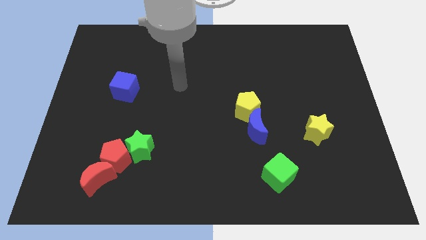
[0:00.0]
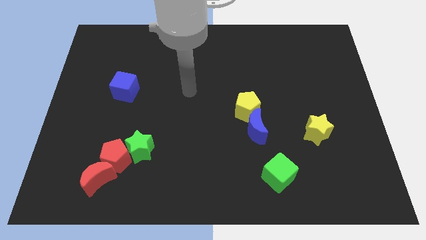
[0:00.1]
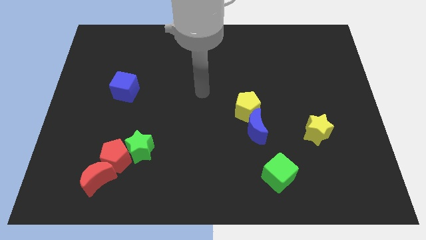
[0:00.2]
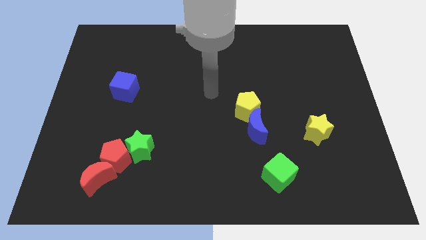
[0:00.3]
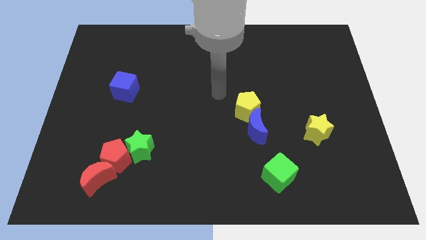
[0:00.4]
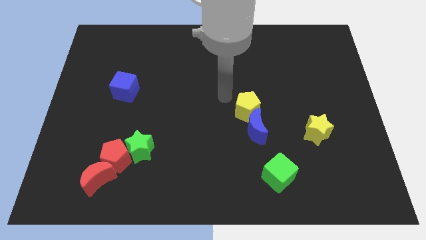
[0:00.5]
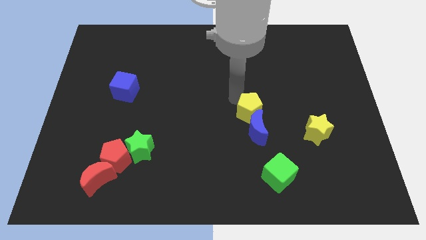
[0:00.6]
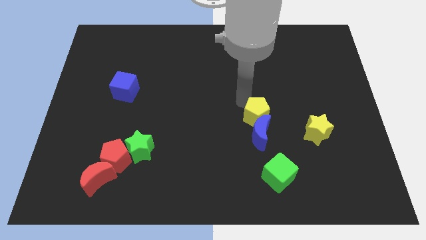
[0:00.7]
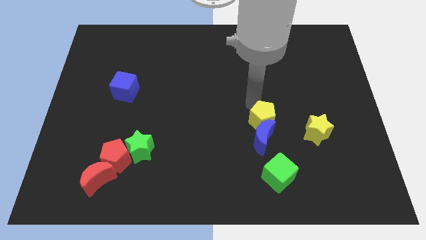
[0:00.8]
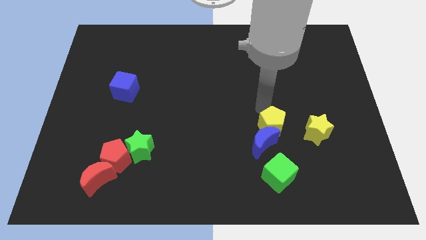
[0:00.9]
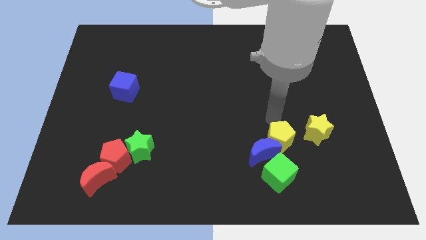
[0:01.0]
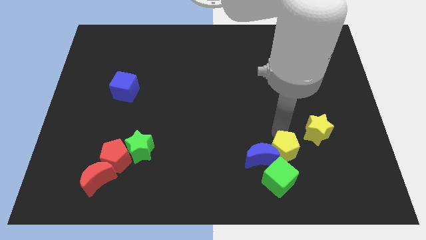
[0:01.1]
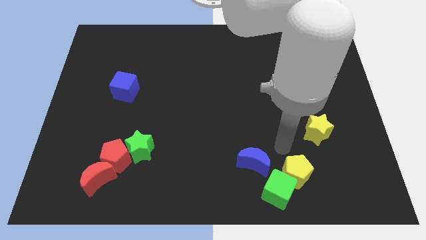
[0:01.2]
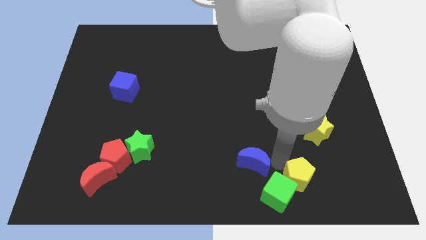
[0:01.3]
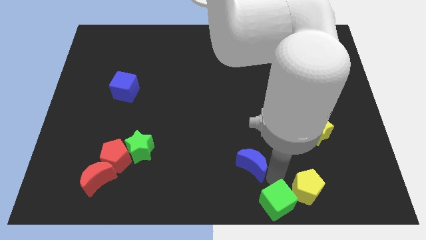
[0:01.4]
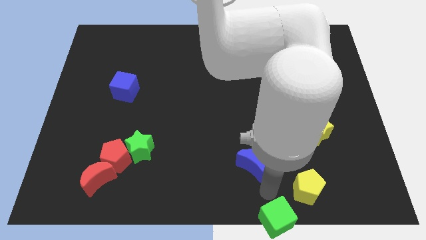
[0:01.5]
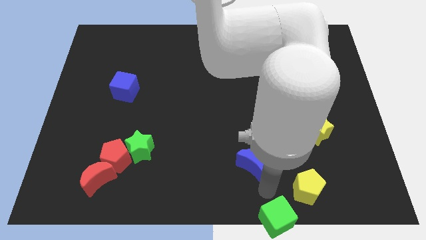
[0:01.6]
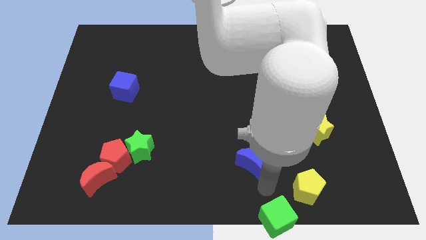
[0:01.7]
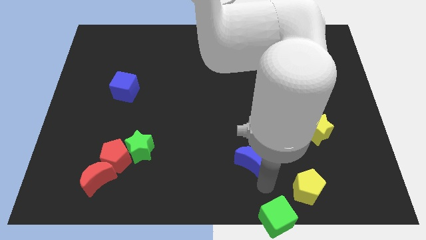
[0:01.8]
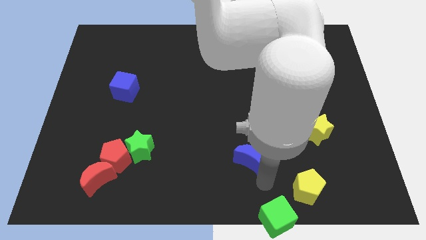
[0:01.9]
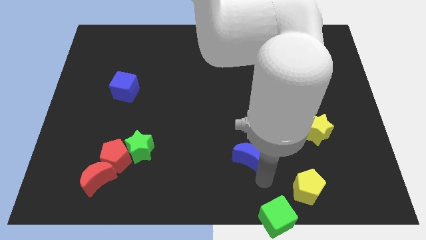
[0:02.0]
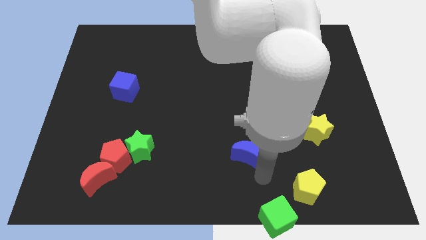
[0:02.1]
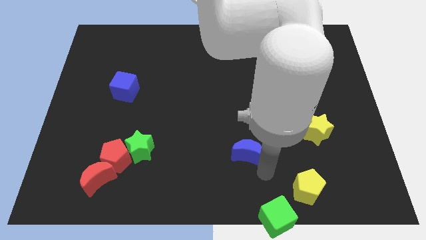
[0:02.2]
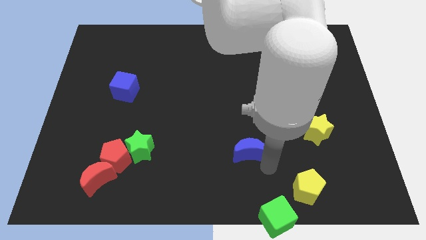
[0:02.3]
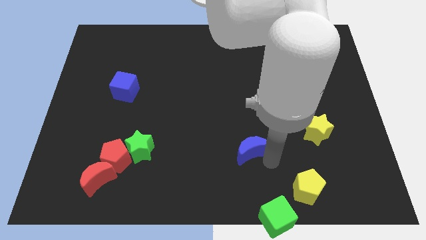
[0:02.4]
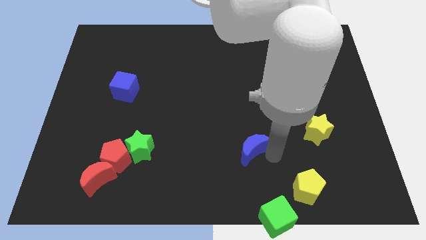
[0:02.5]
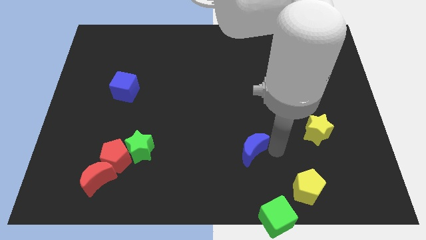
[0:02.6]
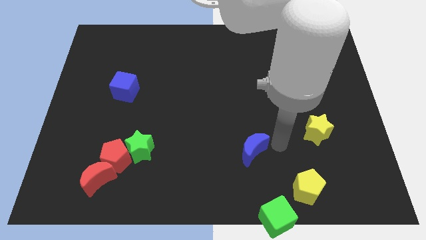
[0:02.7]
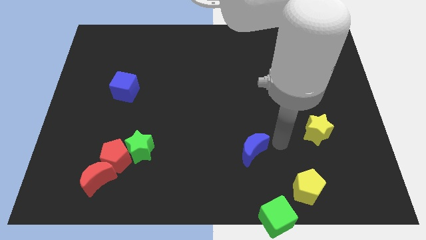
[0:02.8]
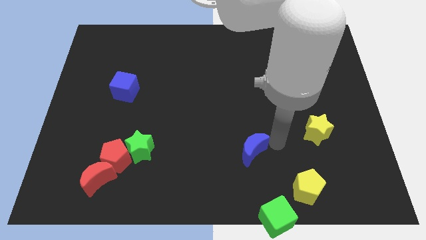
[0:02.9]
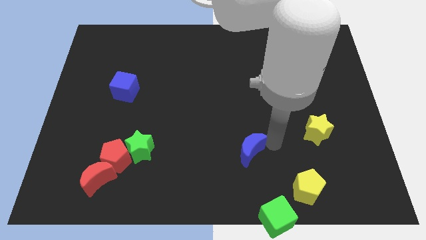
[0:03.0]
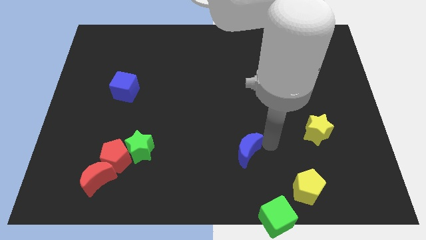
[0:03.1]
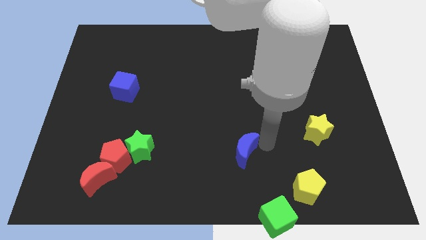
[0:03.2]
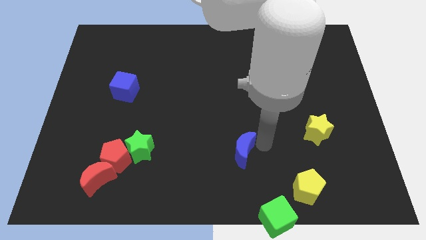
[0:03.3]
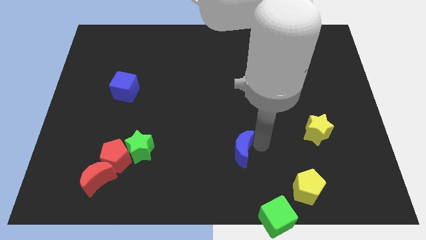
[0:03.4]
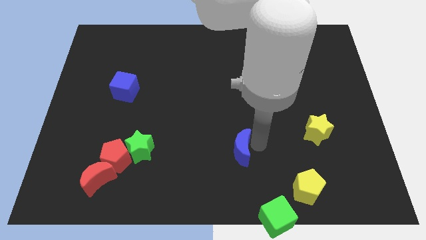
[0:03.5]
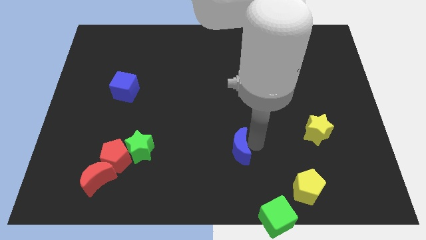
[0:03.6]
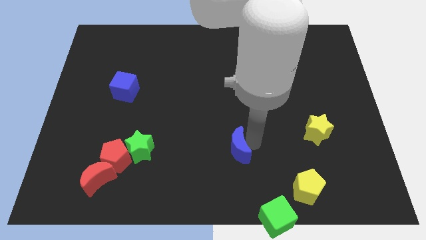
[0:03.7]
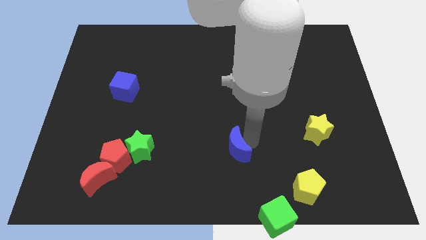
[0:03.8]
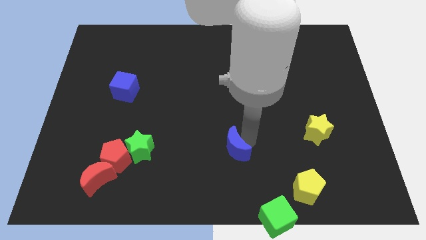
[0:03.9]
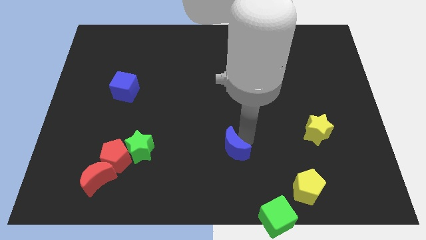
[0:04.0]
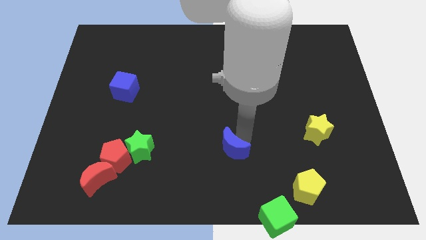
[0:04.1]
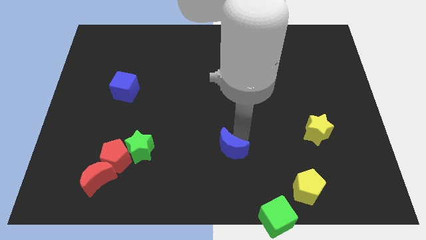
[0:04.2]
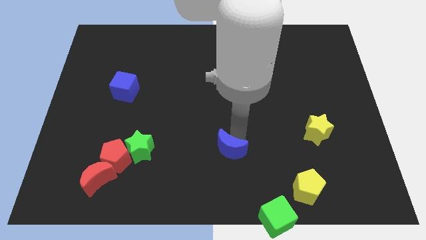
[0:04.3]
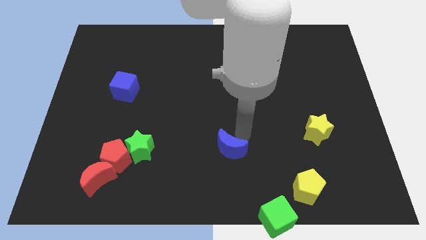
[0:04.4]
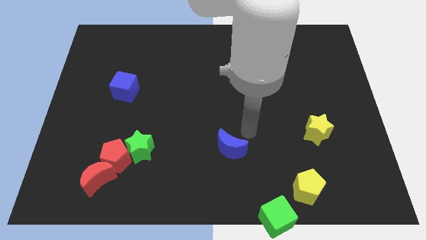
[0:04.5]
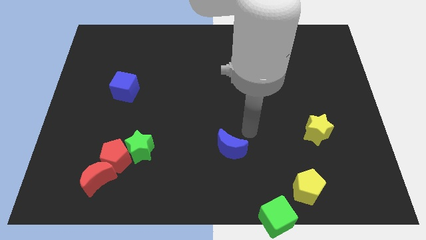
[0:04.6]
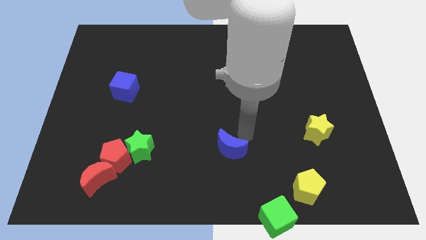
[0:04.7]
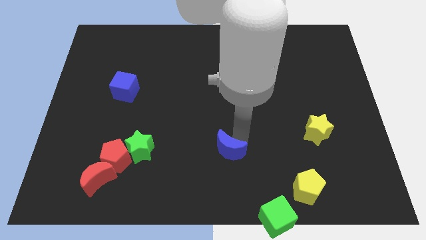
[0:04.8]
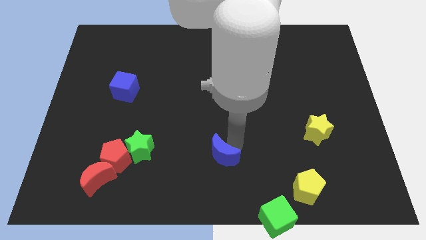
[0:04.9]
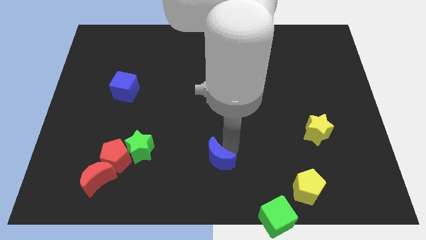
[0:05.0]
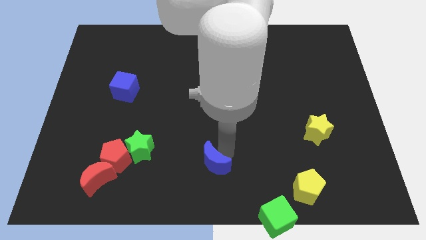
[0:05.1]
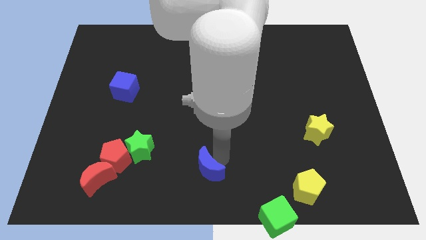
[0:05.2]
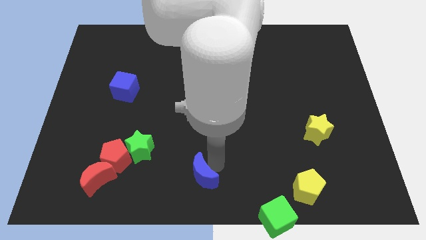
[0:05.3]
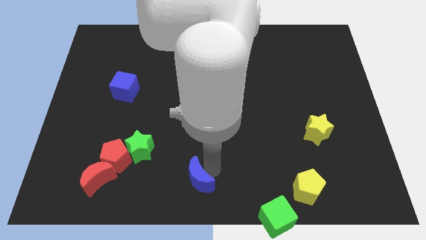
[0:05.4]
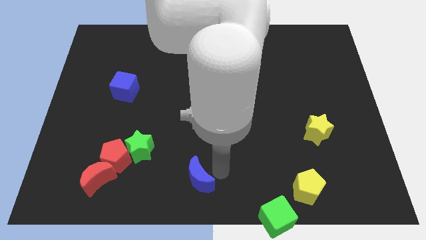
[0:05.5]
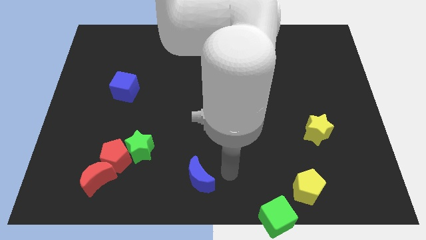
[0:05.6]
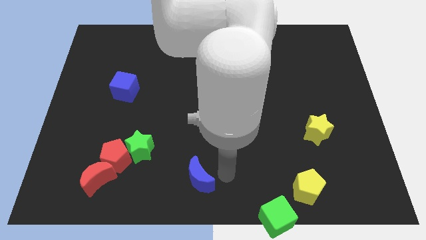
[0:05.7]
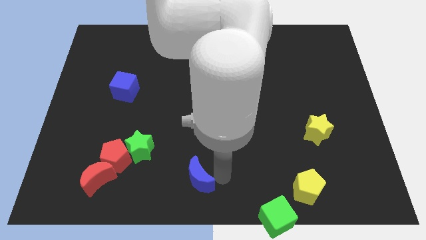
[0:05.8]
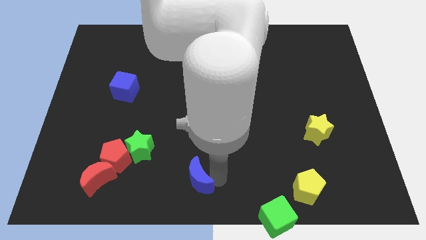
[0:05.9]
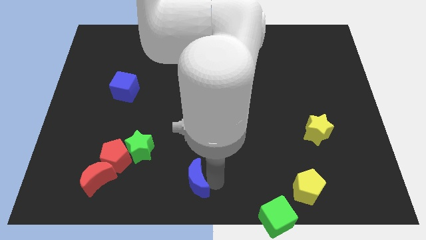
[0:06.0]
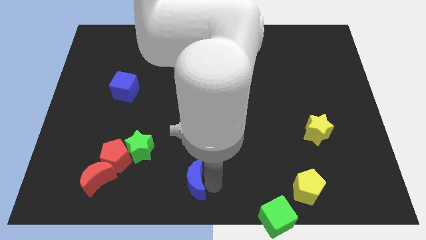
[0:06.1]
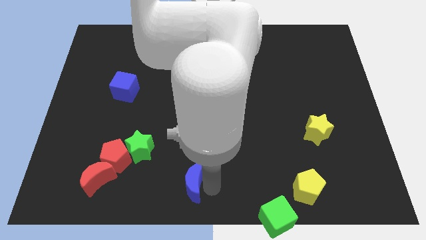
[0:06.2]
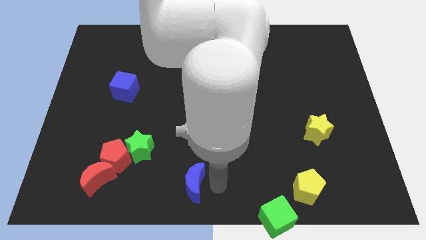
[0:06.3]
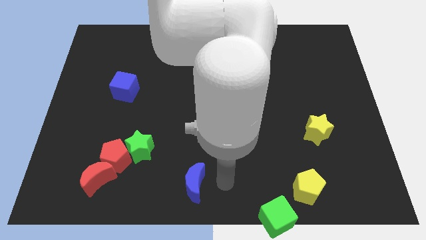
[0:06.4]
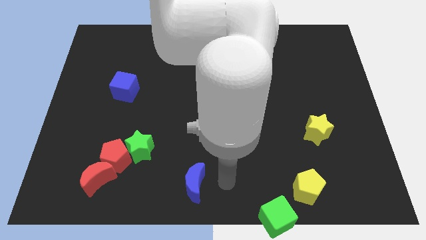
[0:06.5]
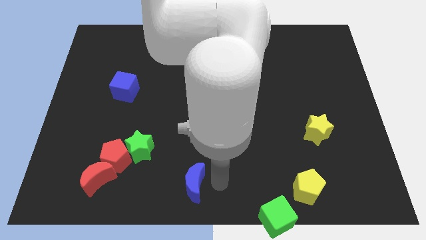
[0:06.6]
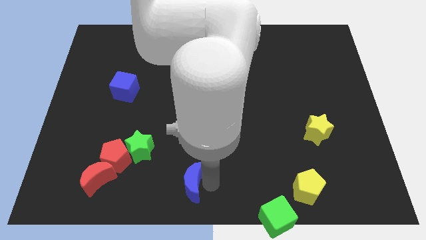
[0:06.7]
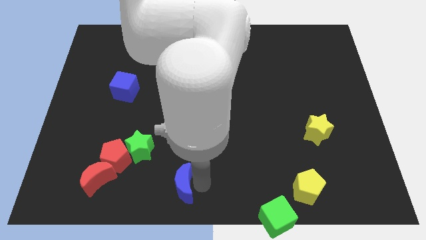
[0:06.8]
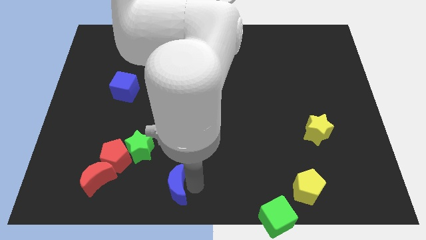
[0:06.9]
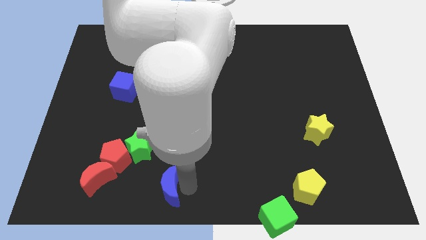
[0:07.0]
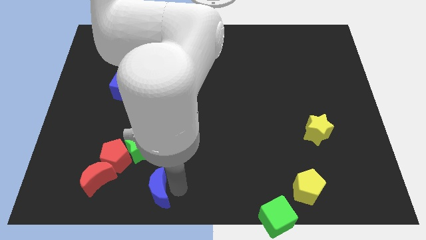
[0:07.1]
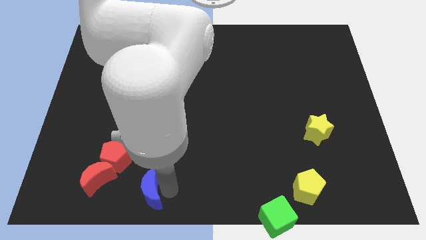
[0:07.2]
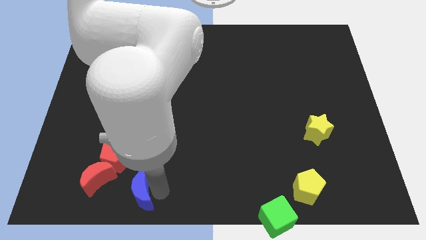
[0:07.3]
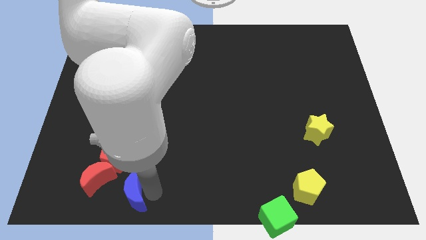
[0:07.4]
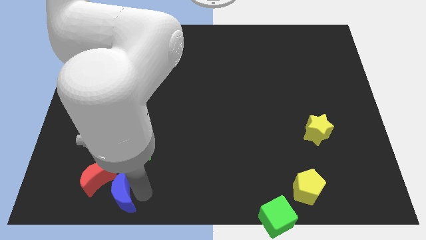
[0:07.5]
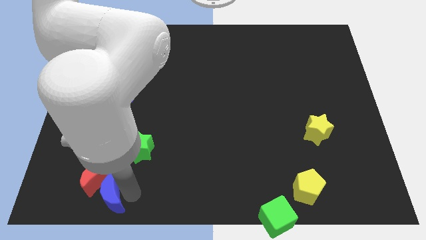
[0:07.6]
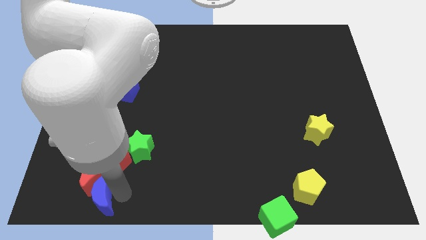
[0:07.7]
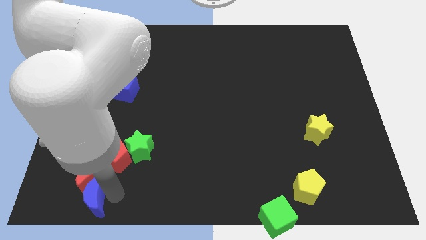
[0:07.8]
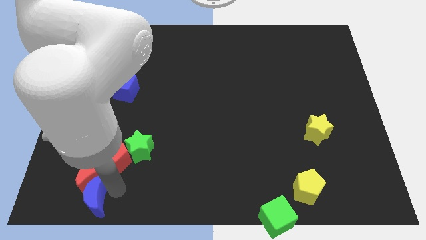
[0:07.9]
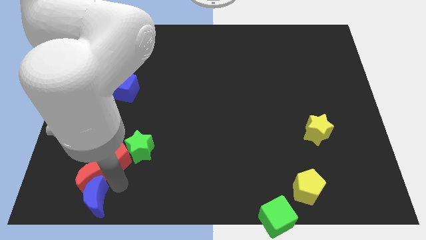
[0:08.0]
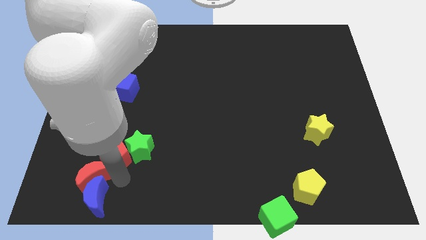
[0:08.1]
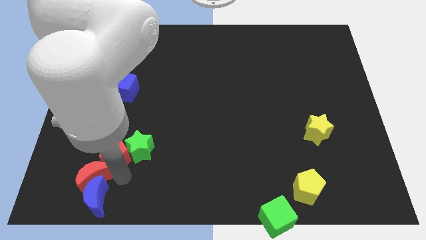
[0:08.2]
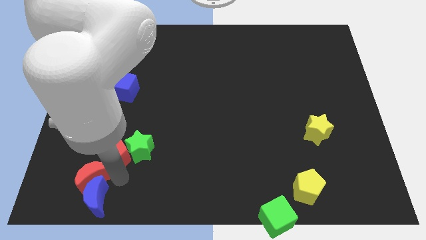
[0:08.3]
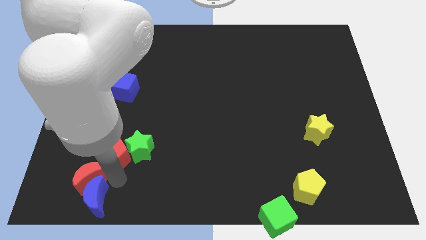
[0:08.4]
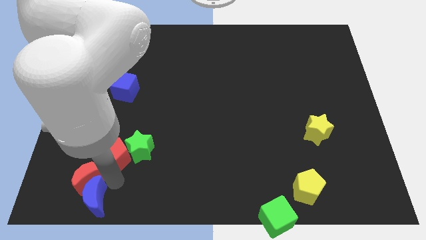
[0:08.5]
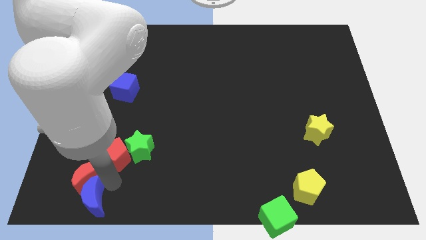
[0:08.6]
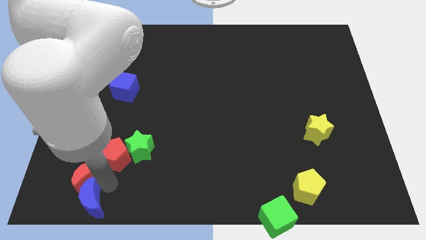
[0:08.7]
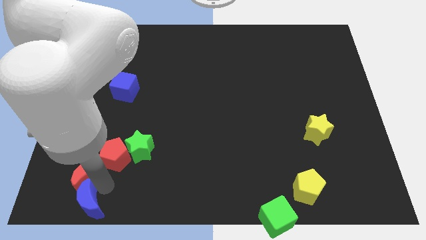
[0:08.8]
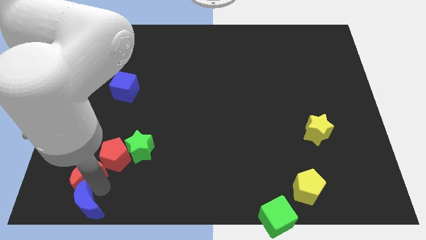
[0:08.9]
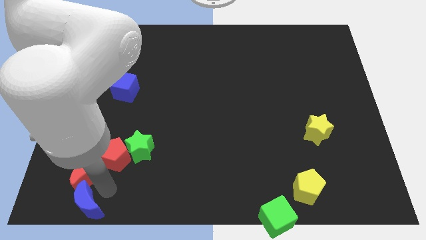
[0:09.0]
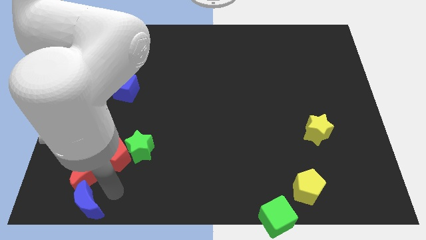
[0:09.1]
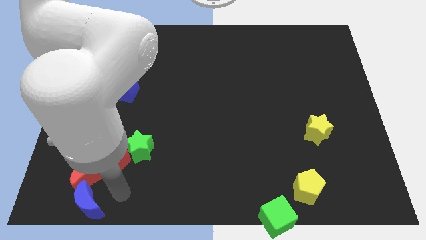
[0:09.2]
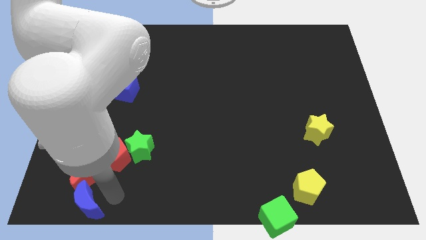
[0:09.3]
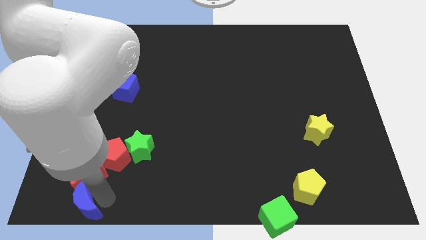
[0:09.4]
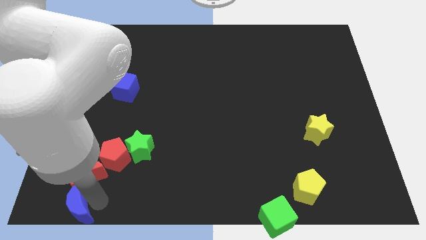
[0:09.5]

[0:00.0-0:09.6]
put the blue moon to the lower left corner
